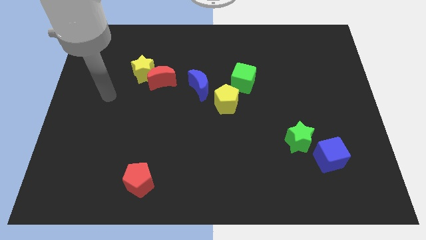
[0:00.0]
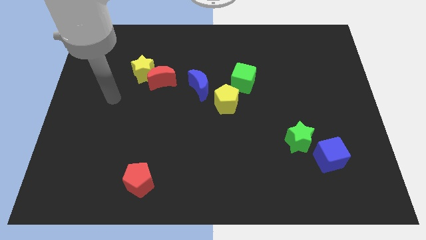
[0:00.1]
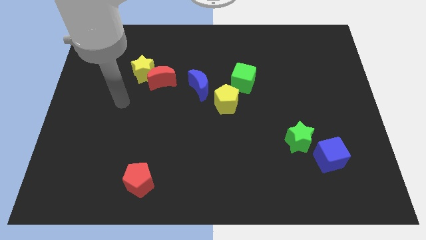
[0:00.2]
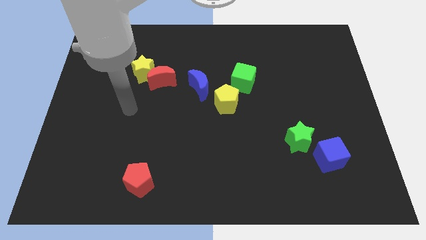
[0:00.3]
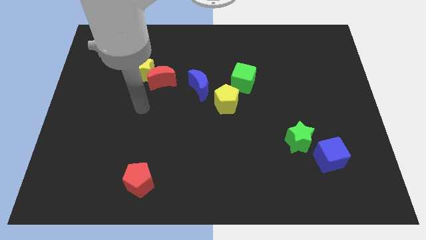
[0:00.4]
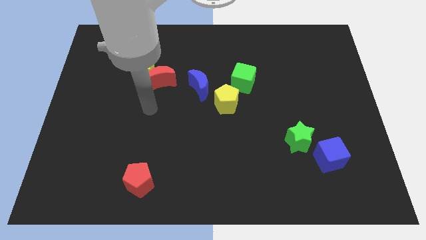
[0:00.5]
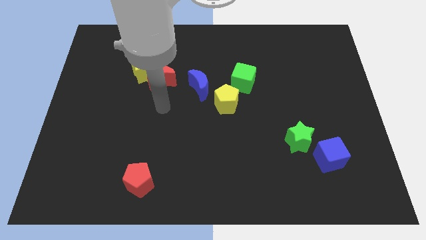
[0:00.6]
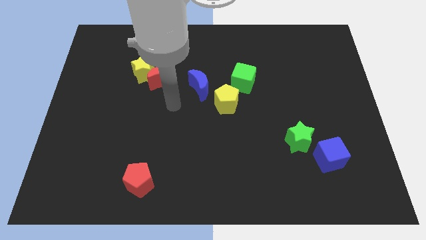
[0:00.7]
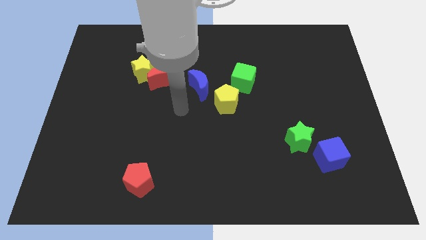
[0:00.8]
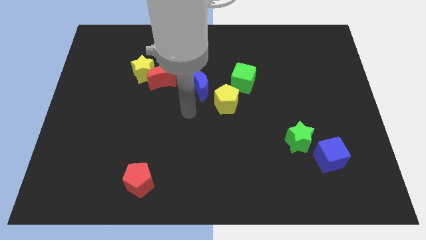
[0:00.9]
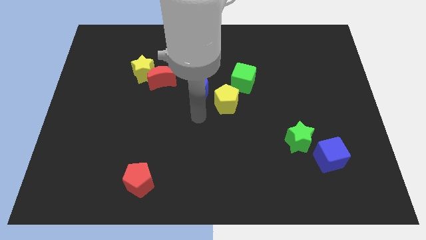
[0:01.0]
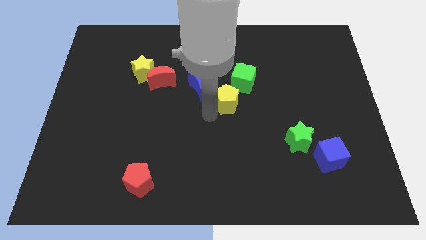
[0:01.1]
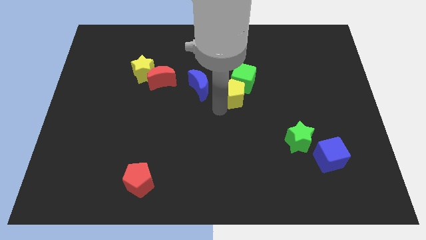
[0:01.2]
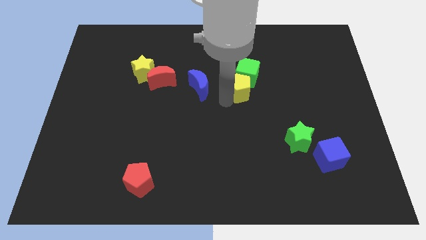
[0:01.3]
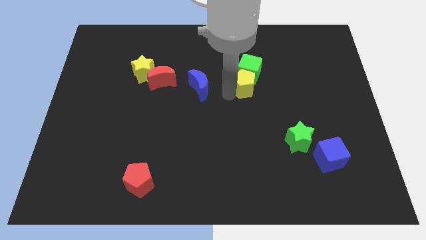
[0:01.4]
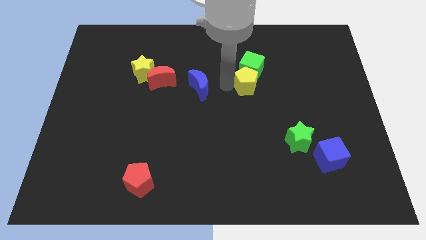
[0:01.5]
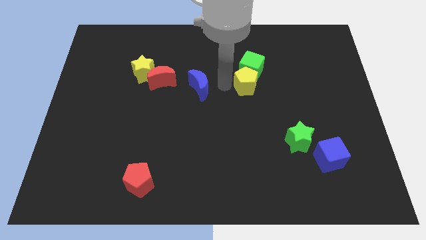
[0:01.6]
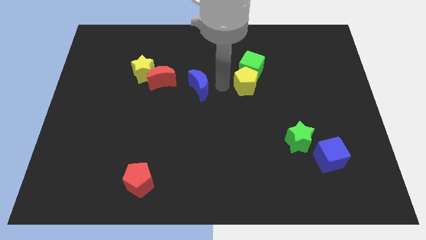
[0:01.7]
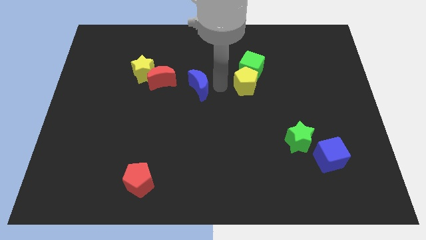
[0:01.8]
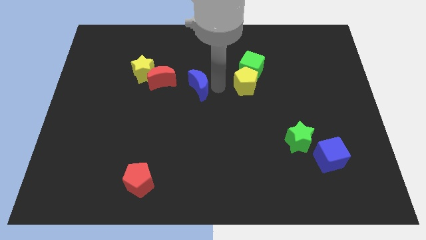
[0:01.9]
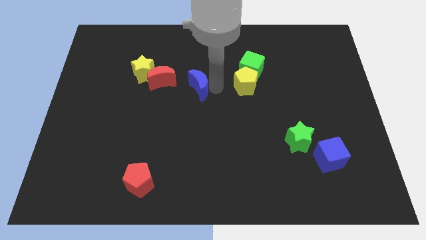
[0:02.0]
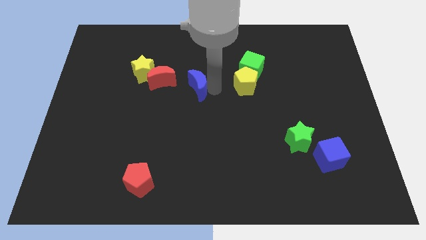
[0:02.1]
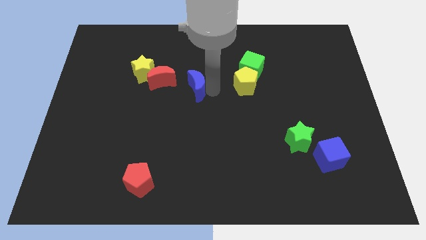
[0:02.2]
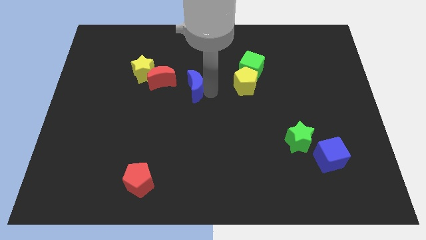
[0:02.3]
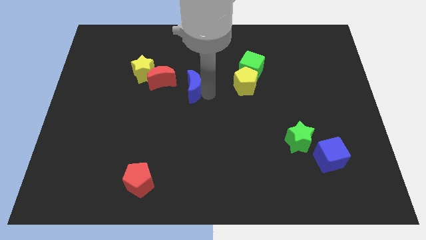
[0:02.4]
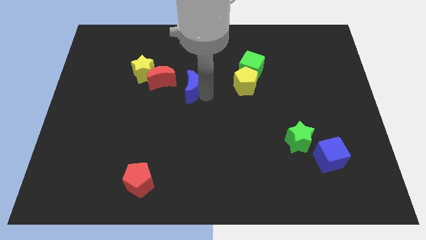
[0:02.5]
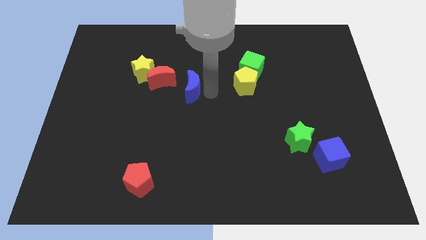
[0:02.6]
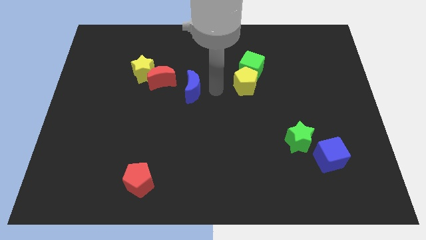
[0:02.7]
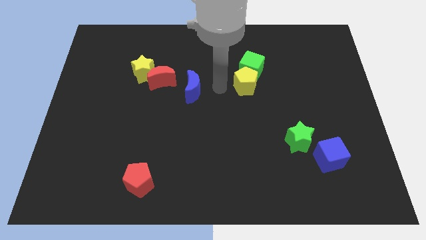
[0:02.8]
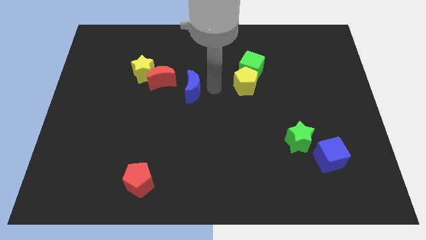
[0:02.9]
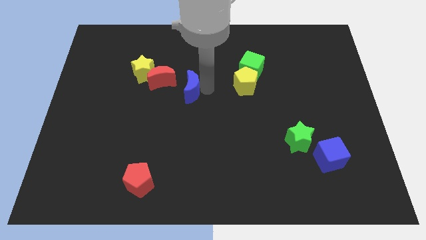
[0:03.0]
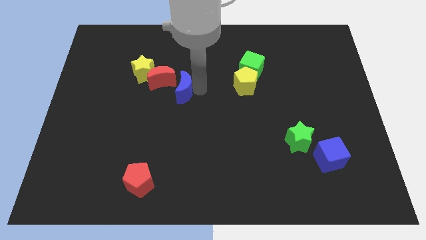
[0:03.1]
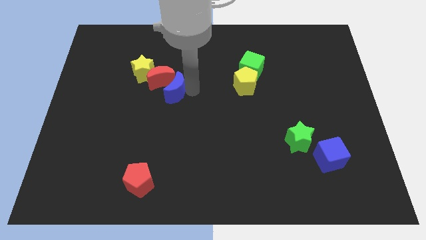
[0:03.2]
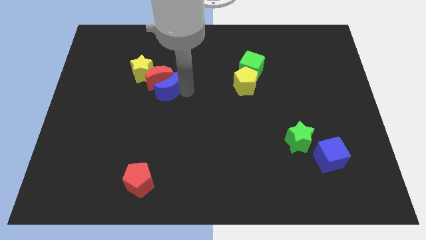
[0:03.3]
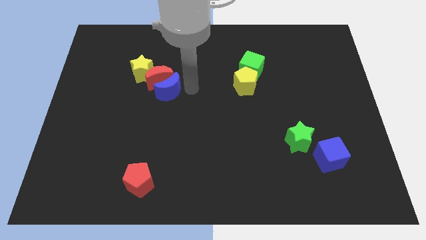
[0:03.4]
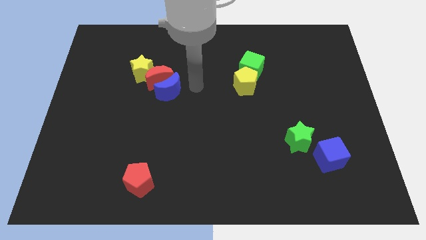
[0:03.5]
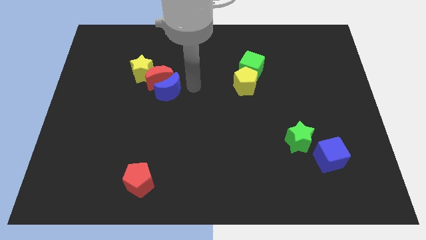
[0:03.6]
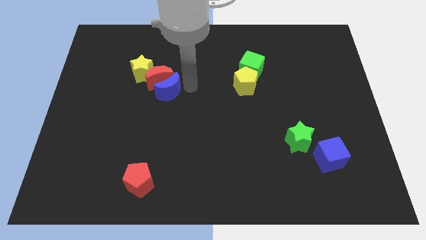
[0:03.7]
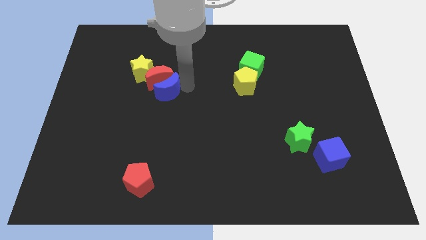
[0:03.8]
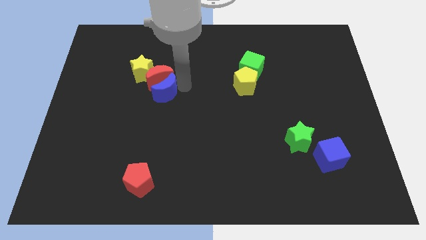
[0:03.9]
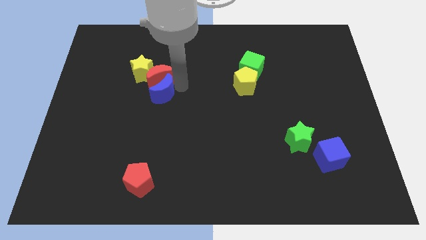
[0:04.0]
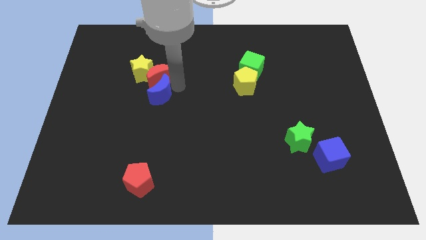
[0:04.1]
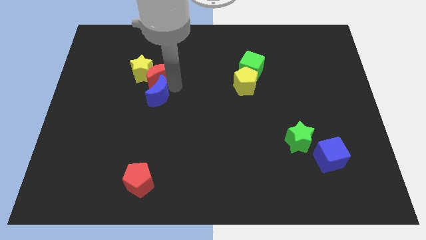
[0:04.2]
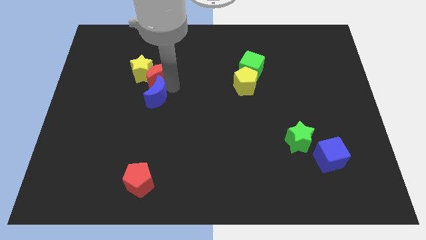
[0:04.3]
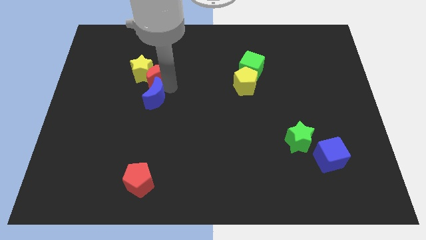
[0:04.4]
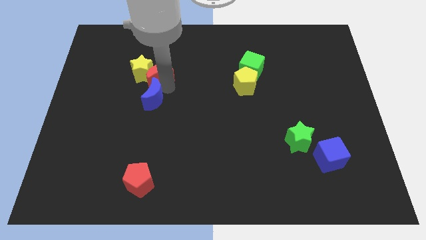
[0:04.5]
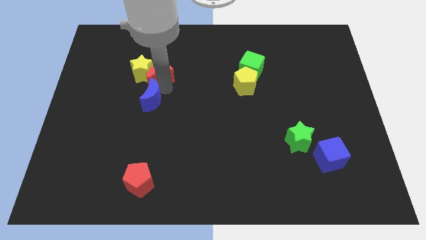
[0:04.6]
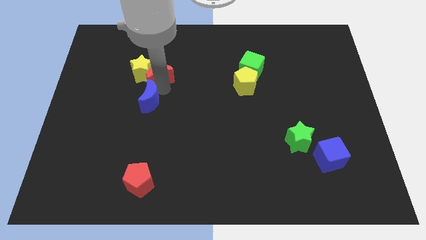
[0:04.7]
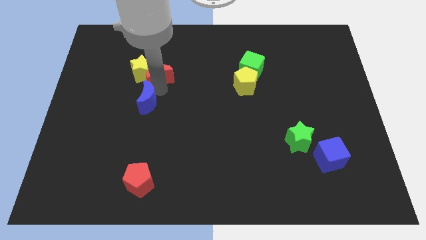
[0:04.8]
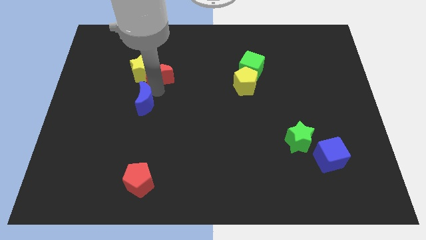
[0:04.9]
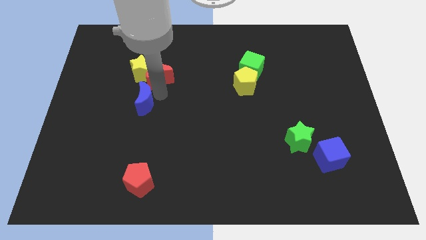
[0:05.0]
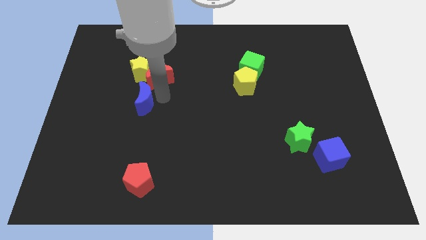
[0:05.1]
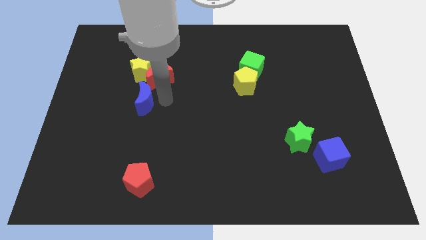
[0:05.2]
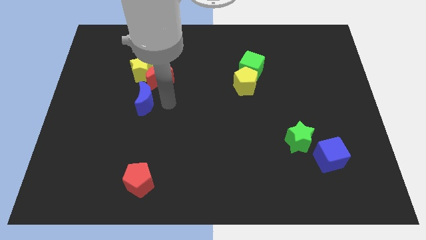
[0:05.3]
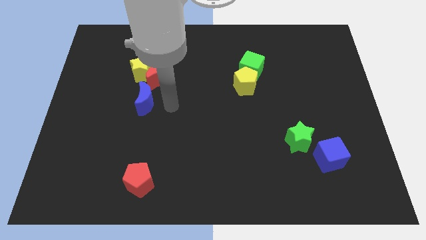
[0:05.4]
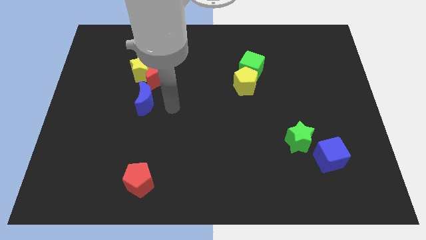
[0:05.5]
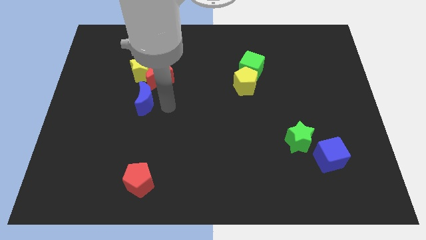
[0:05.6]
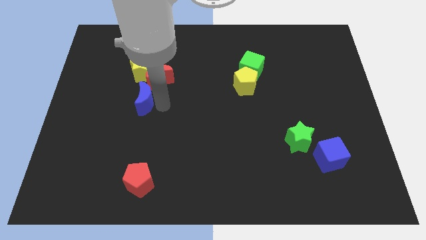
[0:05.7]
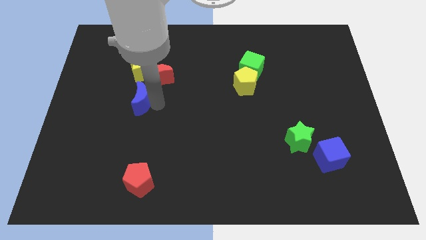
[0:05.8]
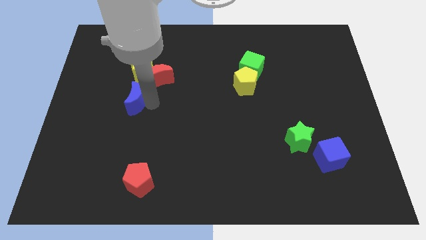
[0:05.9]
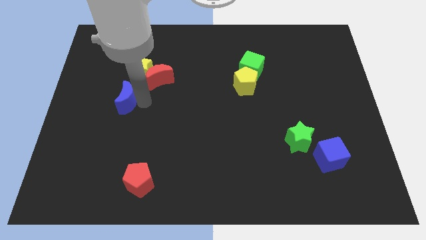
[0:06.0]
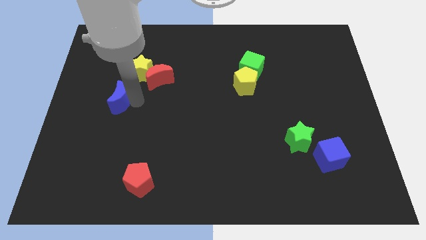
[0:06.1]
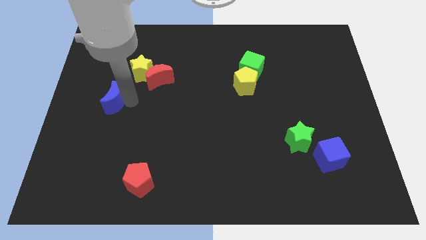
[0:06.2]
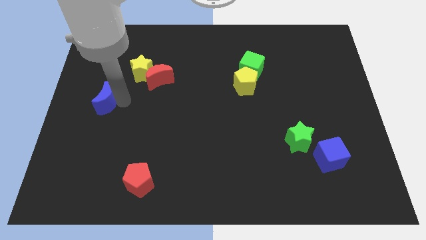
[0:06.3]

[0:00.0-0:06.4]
move the blue moon to the center left
